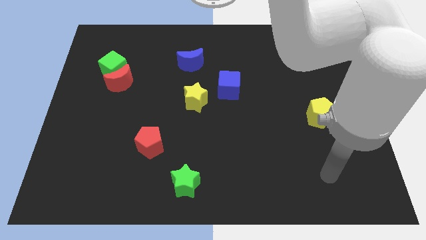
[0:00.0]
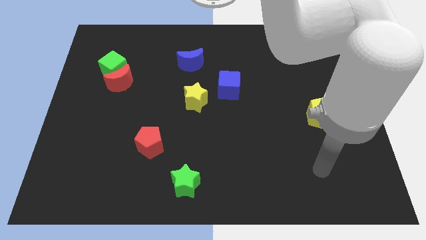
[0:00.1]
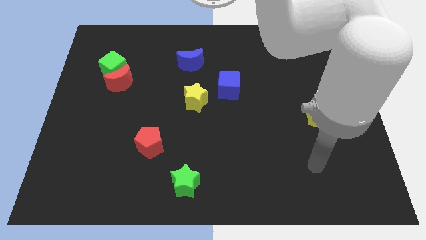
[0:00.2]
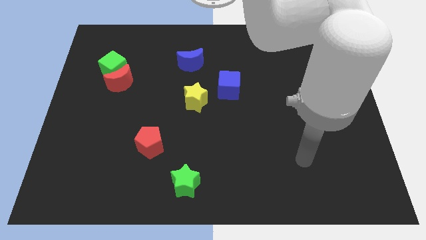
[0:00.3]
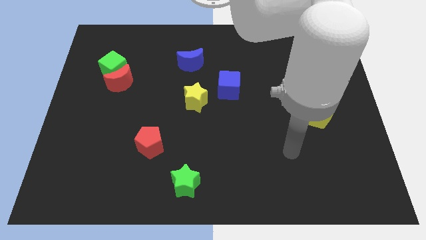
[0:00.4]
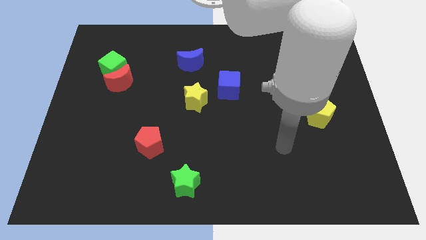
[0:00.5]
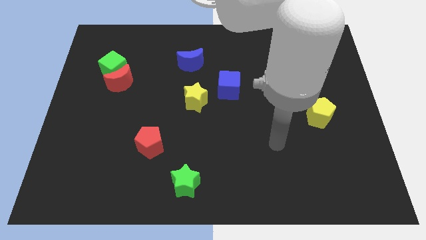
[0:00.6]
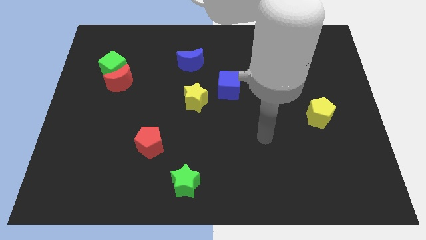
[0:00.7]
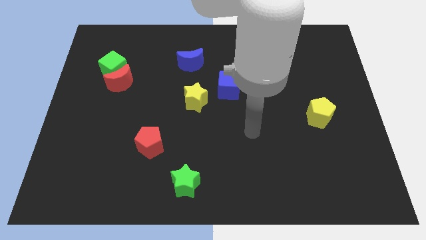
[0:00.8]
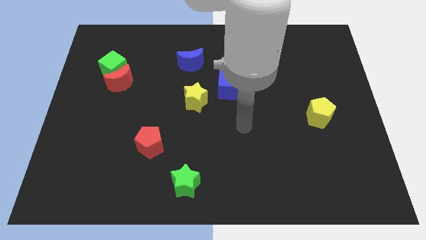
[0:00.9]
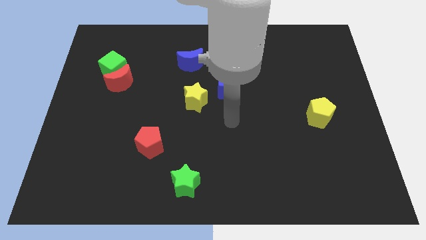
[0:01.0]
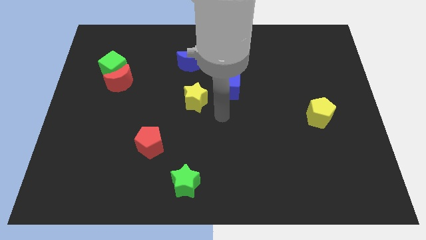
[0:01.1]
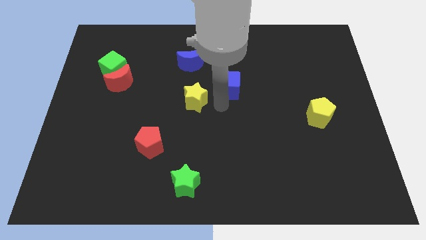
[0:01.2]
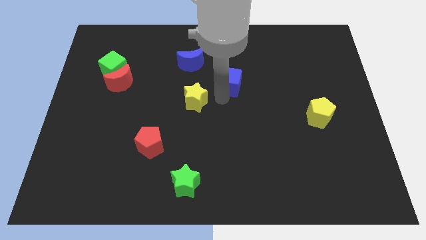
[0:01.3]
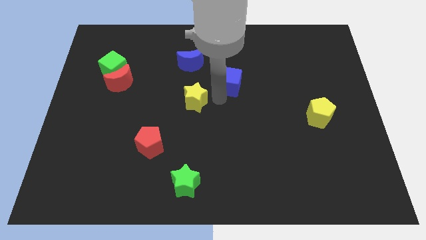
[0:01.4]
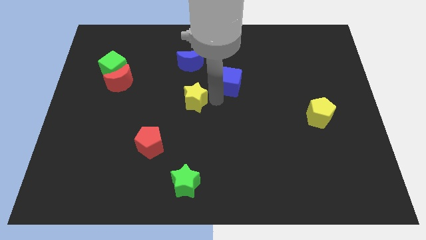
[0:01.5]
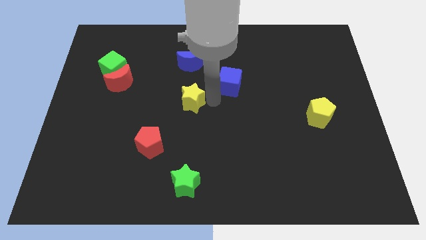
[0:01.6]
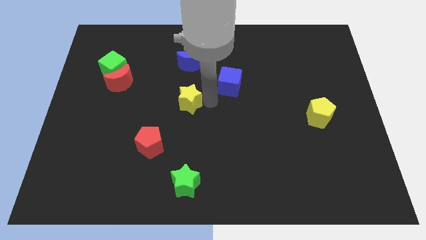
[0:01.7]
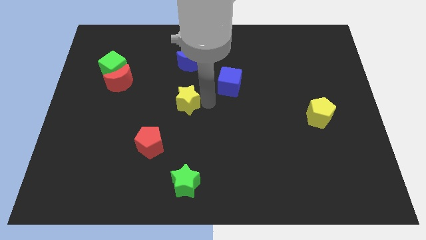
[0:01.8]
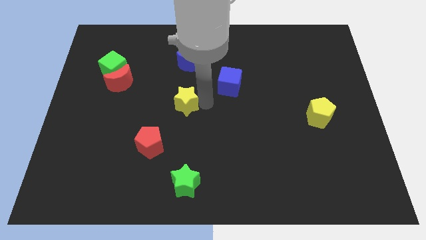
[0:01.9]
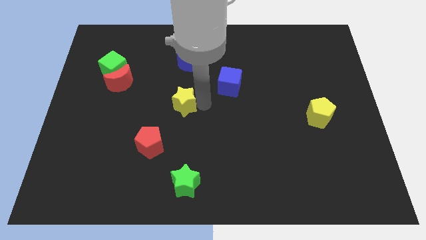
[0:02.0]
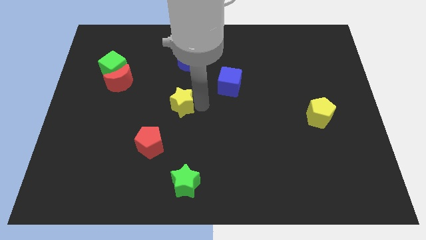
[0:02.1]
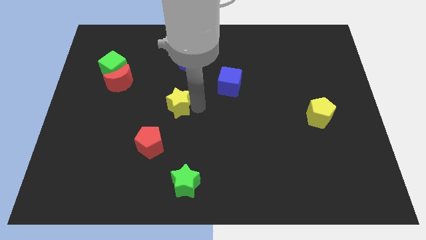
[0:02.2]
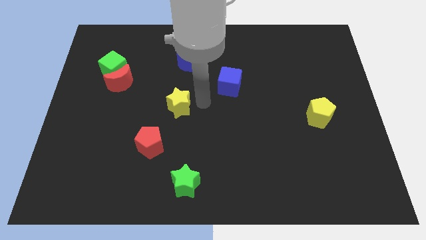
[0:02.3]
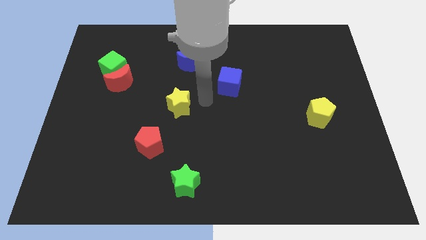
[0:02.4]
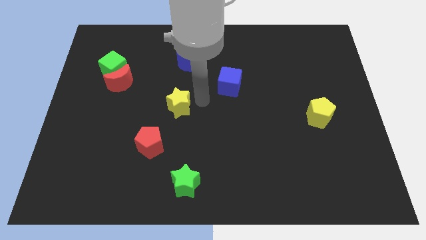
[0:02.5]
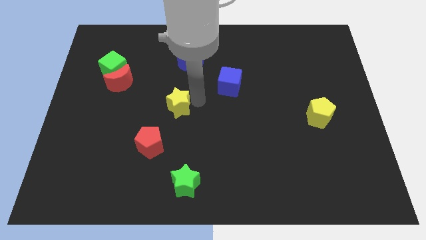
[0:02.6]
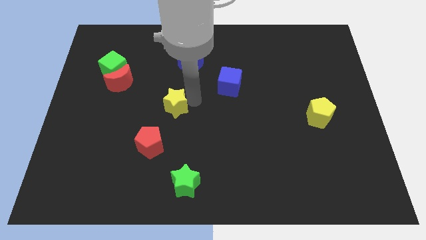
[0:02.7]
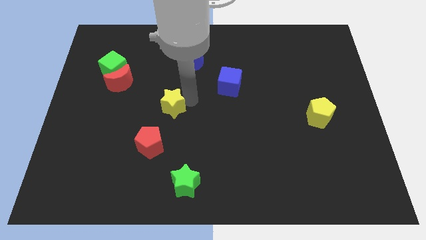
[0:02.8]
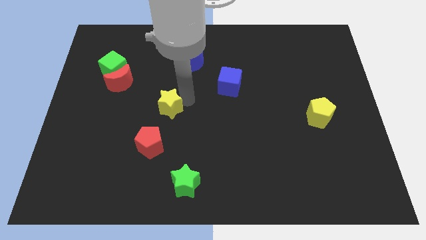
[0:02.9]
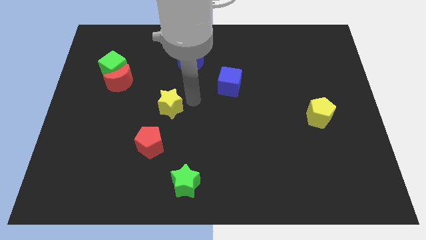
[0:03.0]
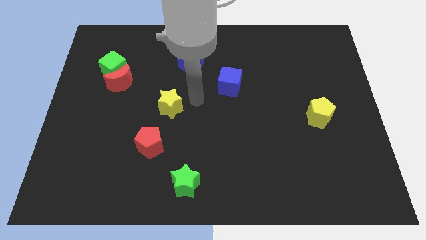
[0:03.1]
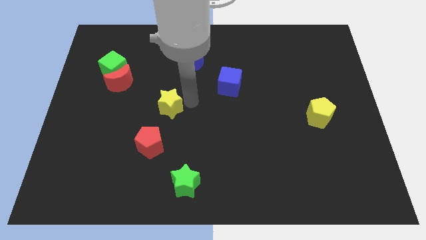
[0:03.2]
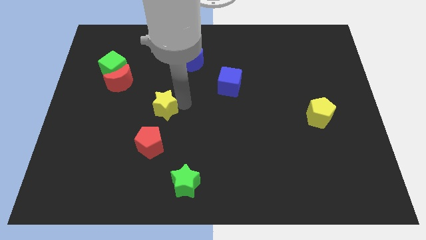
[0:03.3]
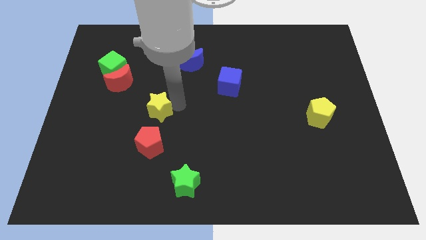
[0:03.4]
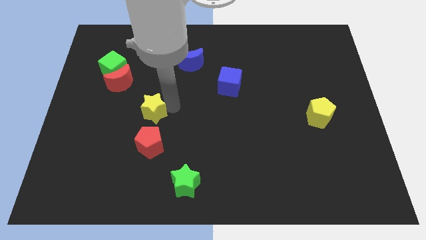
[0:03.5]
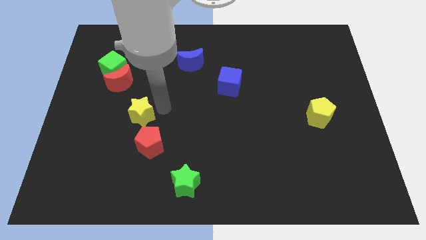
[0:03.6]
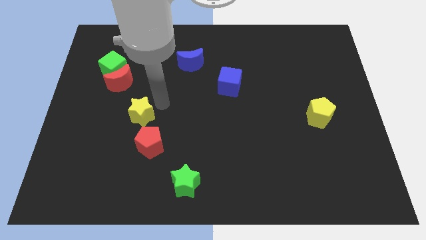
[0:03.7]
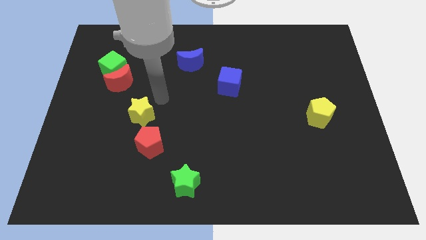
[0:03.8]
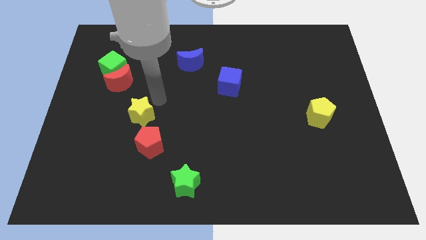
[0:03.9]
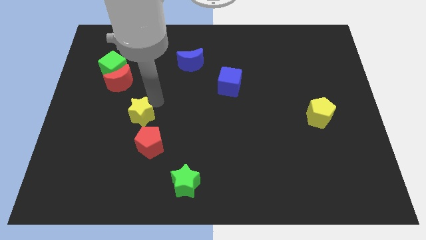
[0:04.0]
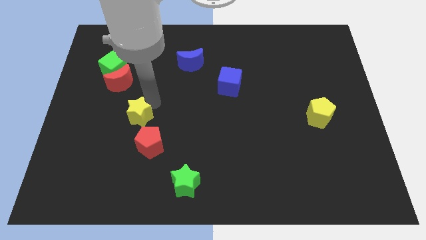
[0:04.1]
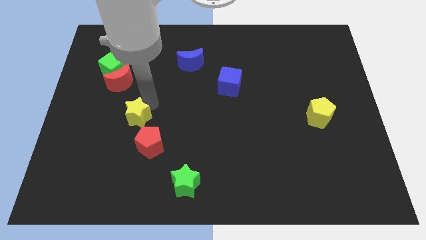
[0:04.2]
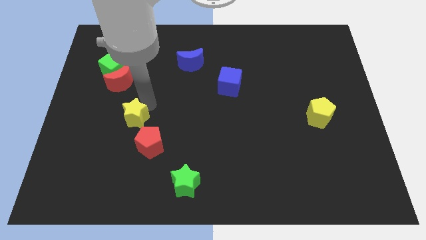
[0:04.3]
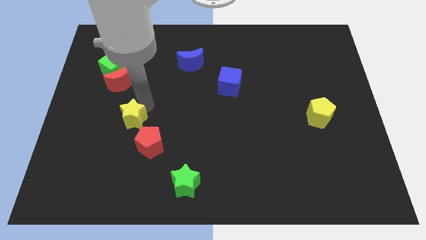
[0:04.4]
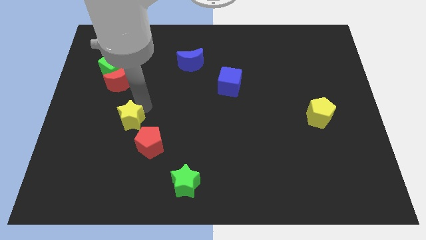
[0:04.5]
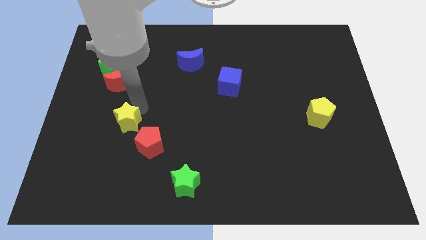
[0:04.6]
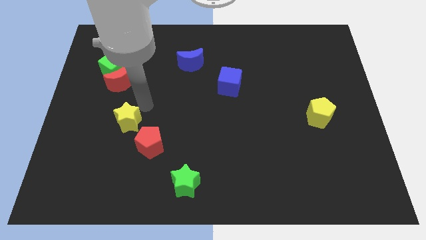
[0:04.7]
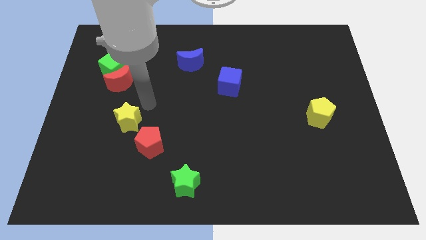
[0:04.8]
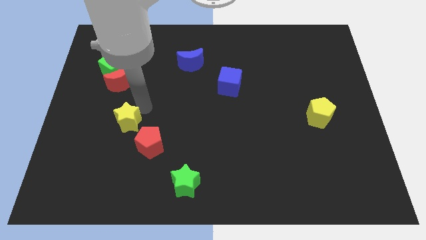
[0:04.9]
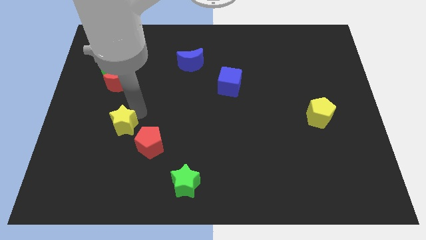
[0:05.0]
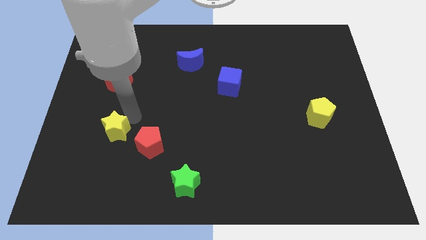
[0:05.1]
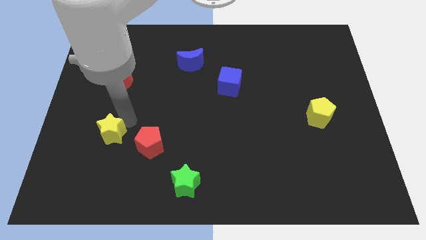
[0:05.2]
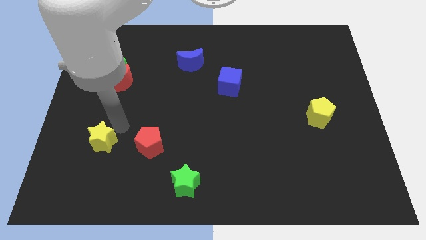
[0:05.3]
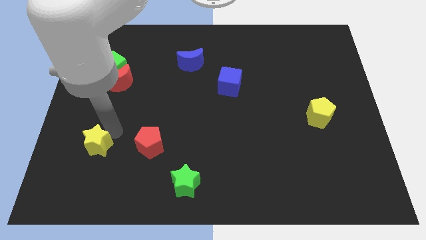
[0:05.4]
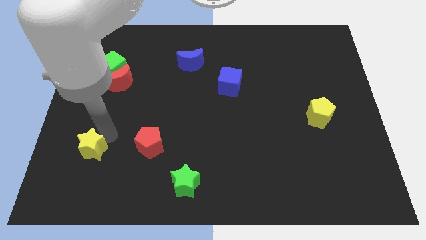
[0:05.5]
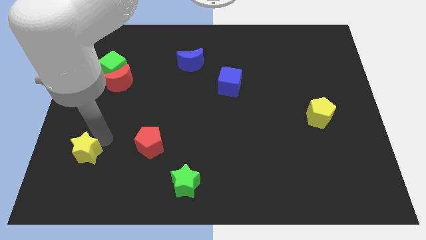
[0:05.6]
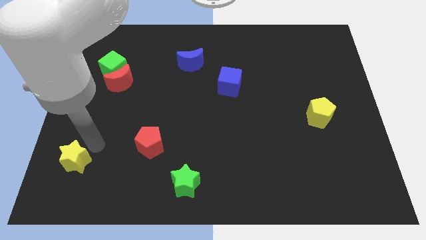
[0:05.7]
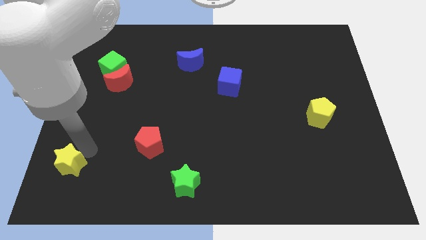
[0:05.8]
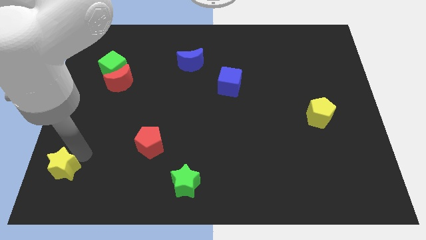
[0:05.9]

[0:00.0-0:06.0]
push the yellow star to the bottom left

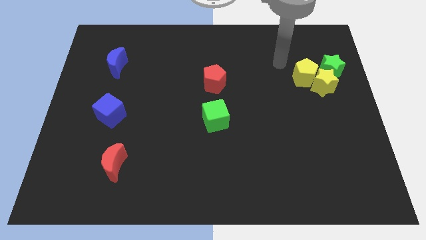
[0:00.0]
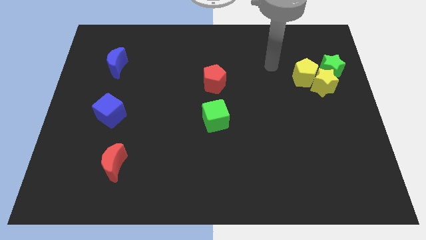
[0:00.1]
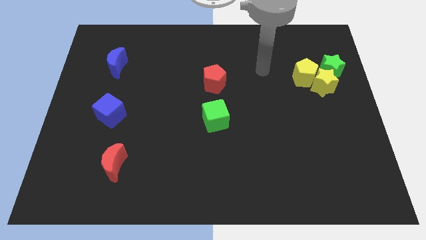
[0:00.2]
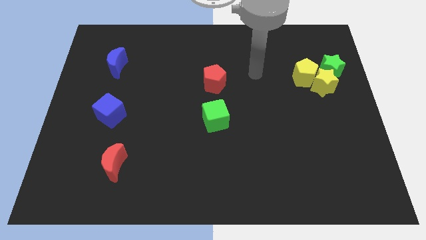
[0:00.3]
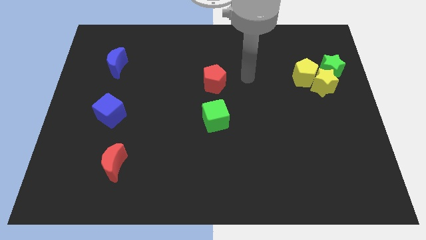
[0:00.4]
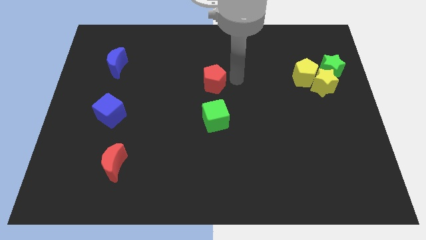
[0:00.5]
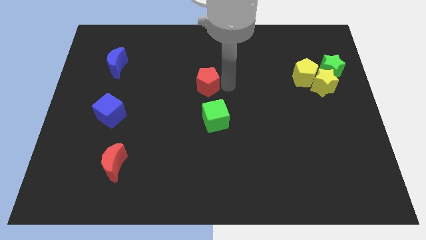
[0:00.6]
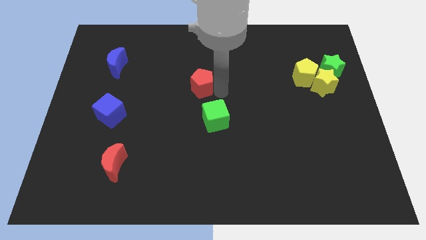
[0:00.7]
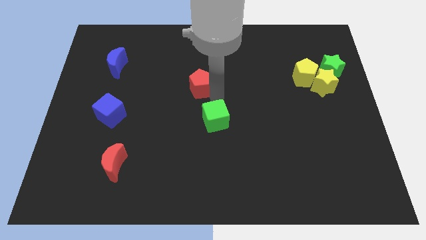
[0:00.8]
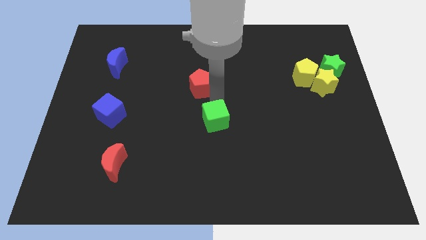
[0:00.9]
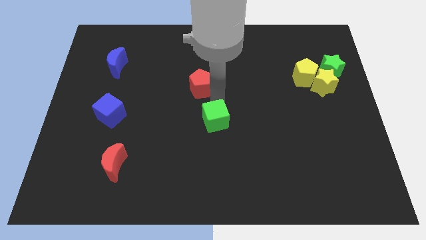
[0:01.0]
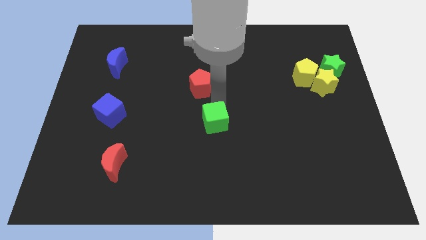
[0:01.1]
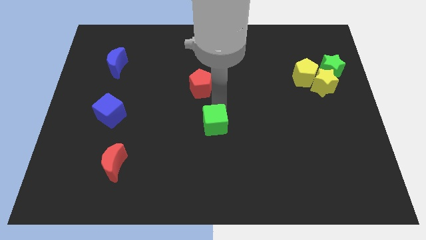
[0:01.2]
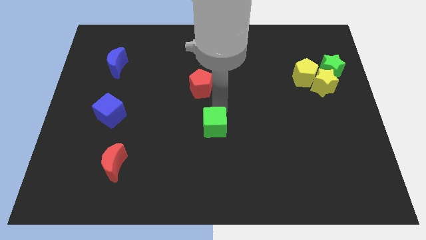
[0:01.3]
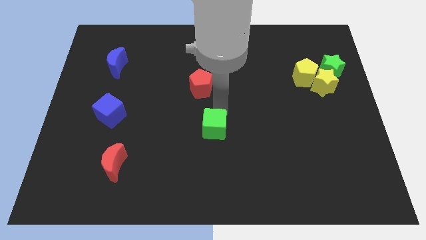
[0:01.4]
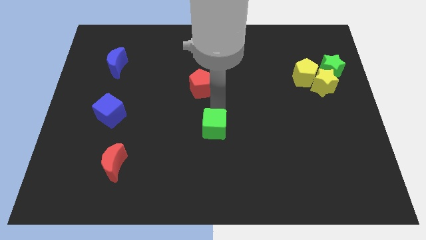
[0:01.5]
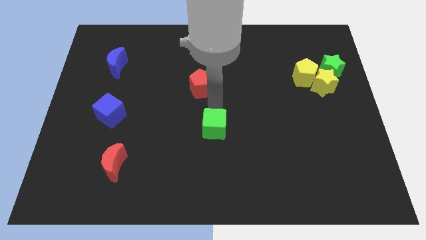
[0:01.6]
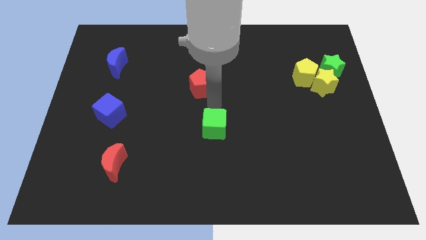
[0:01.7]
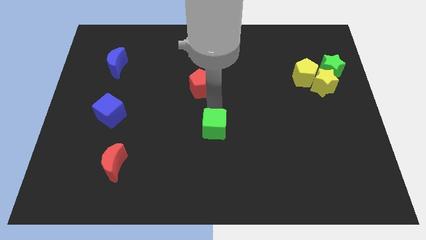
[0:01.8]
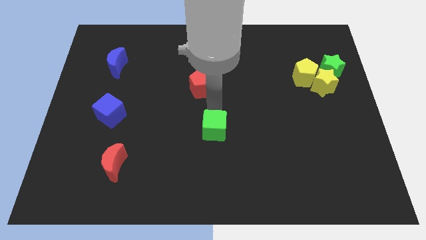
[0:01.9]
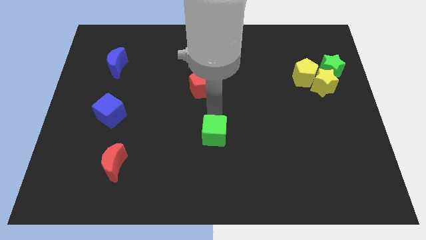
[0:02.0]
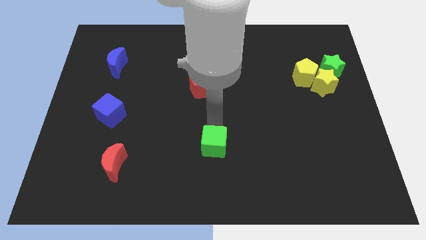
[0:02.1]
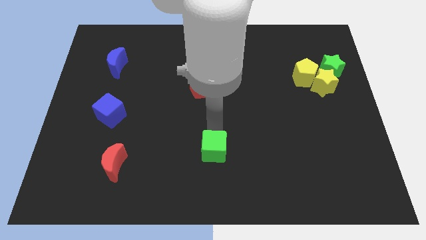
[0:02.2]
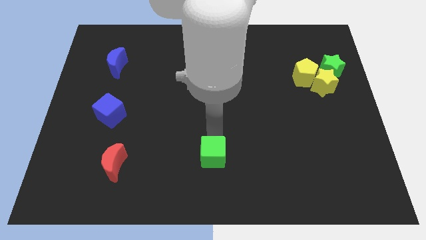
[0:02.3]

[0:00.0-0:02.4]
slide the green cube to the bottom
